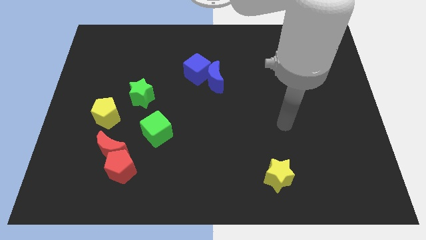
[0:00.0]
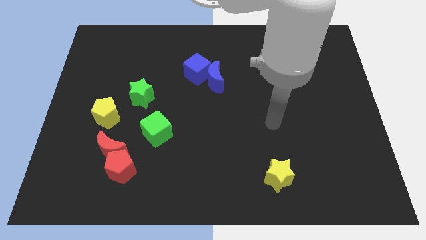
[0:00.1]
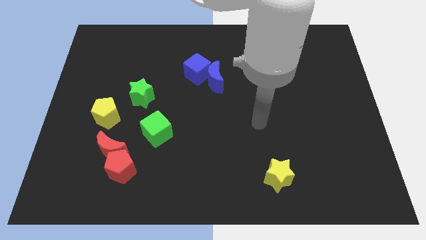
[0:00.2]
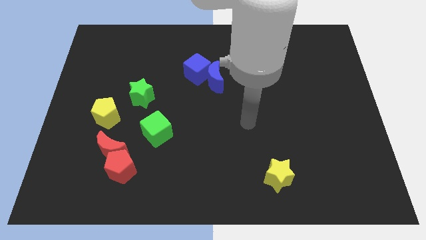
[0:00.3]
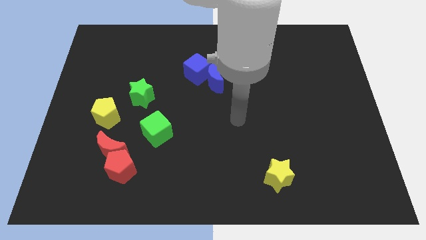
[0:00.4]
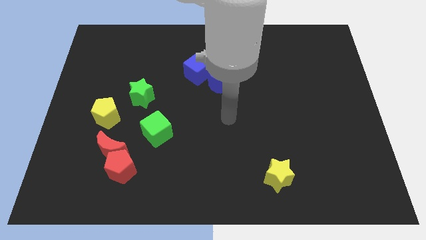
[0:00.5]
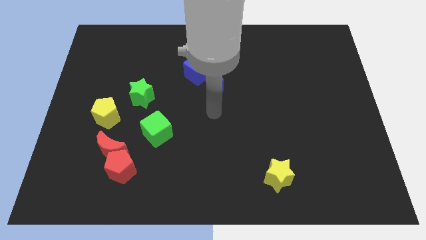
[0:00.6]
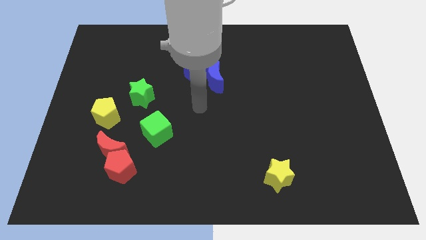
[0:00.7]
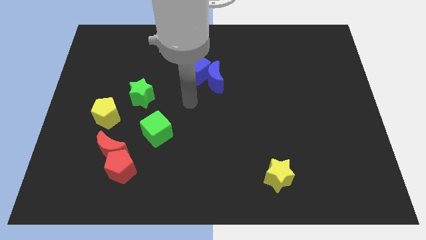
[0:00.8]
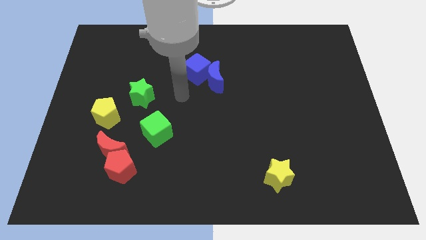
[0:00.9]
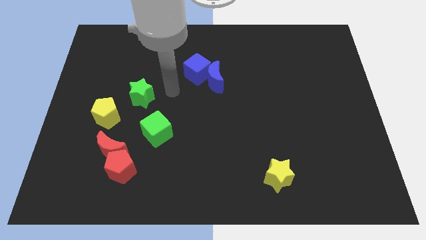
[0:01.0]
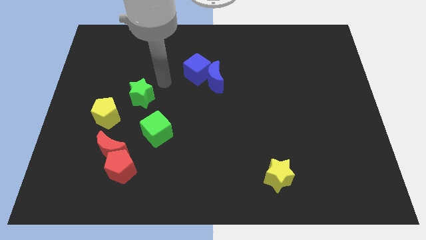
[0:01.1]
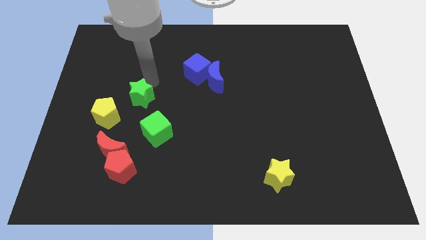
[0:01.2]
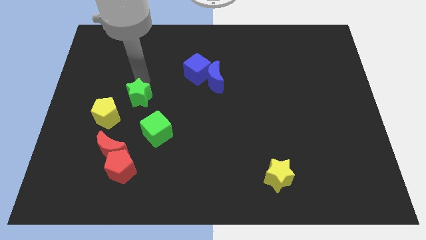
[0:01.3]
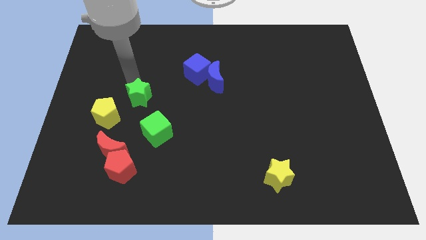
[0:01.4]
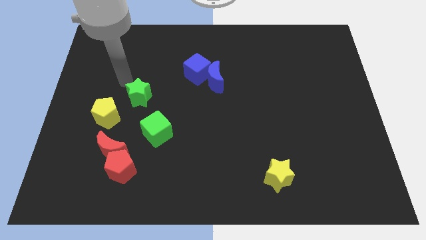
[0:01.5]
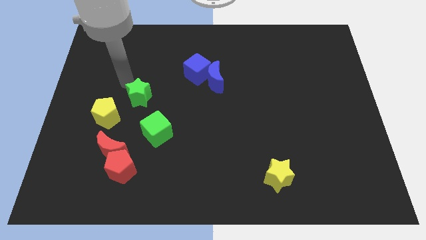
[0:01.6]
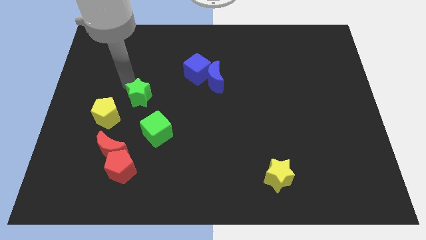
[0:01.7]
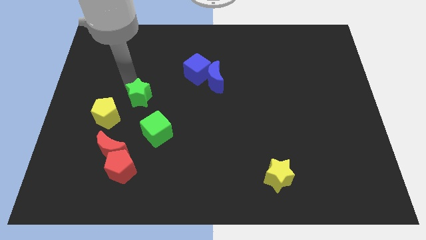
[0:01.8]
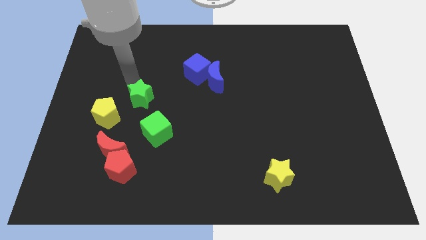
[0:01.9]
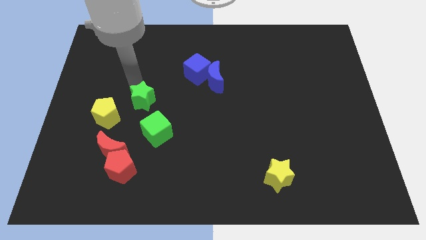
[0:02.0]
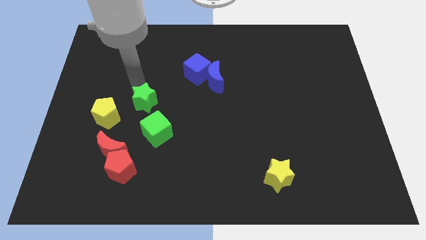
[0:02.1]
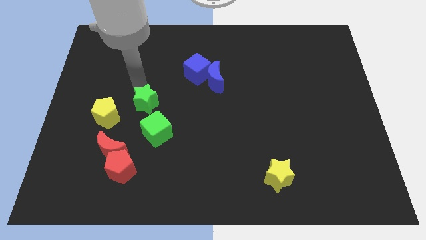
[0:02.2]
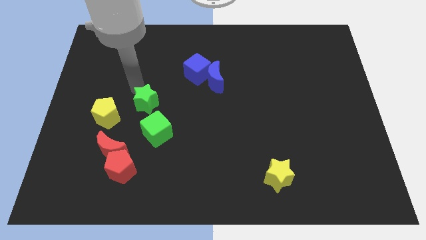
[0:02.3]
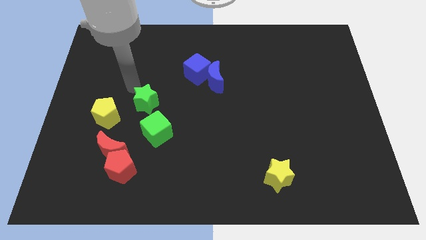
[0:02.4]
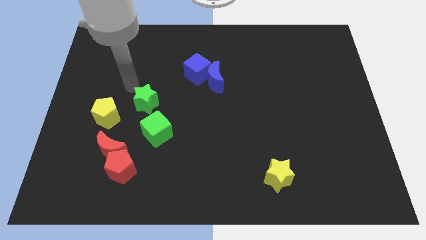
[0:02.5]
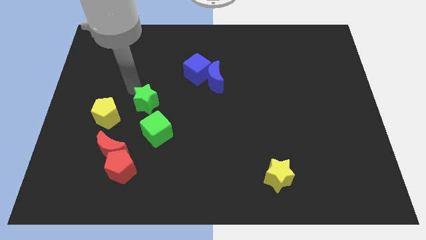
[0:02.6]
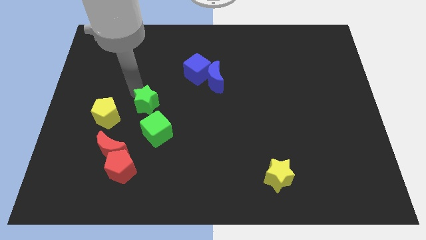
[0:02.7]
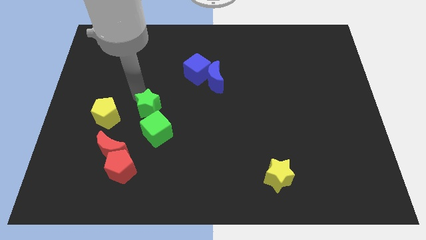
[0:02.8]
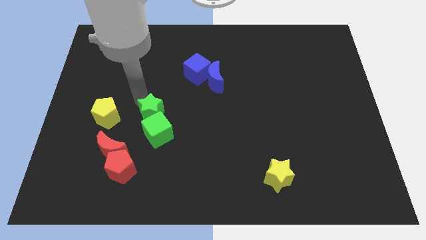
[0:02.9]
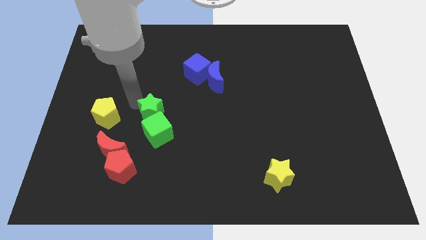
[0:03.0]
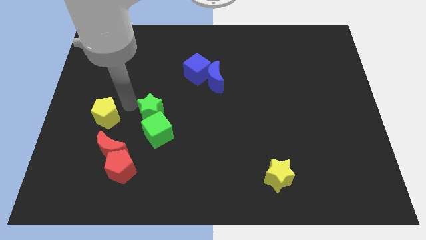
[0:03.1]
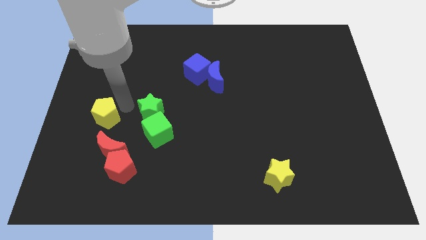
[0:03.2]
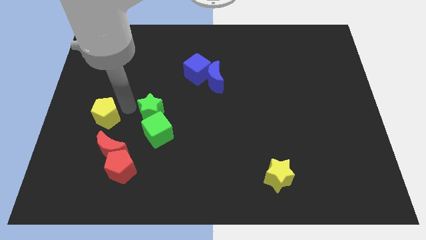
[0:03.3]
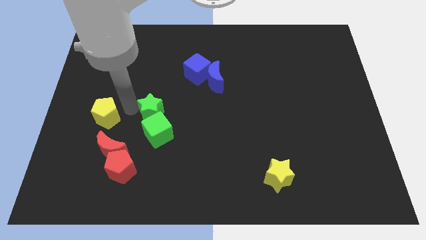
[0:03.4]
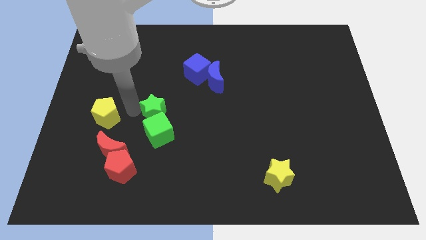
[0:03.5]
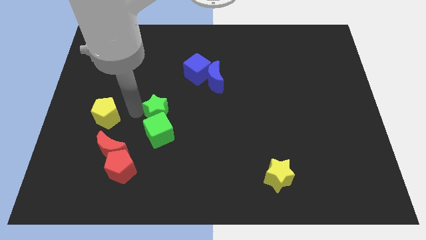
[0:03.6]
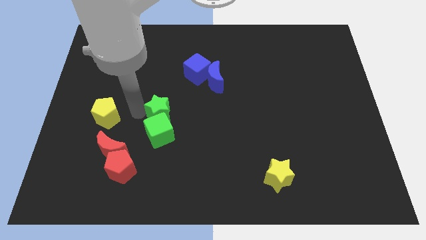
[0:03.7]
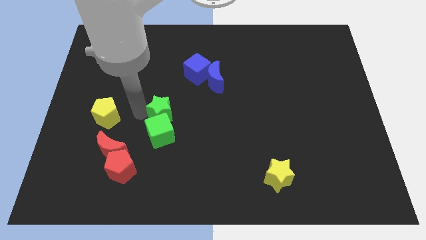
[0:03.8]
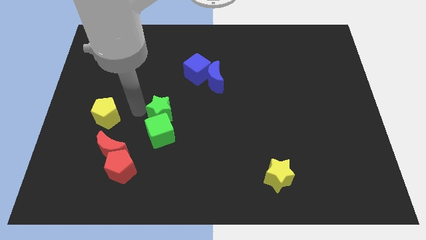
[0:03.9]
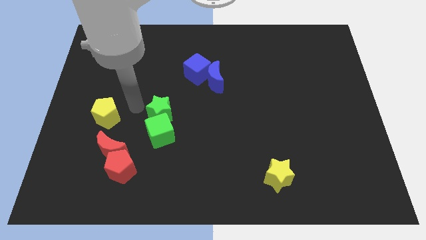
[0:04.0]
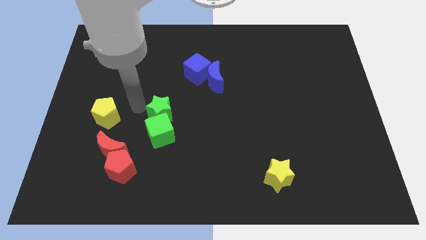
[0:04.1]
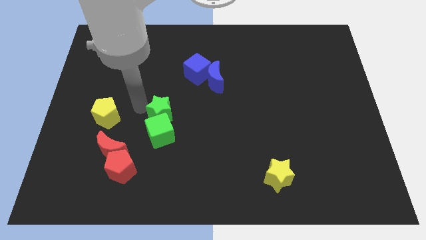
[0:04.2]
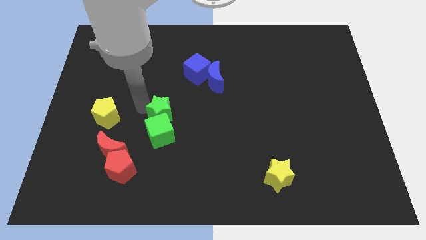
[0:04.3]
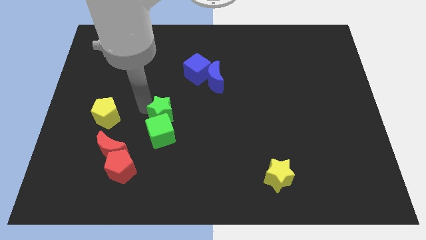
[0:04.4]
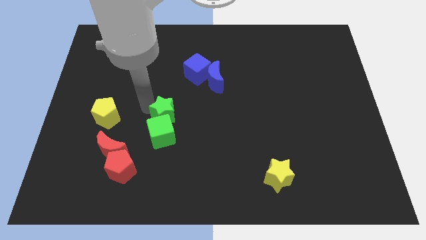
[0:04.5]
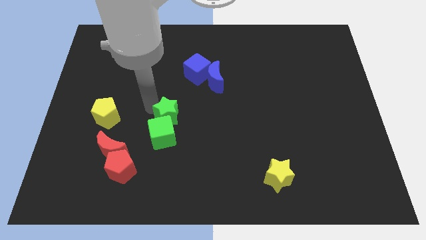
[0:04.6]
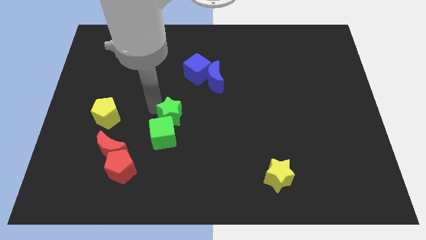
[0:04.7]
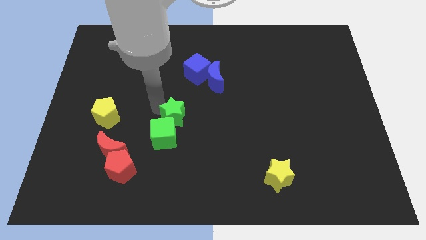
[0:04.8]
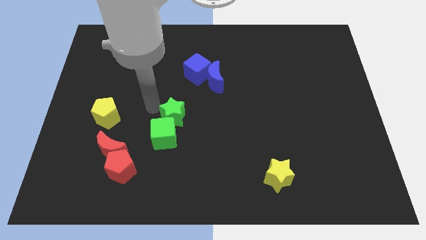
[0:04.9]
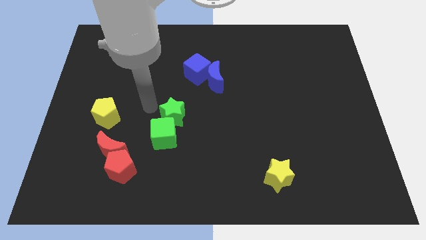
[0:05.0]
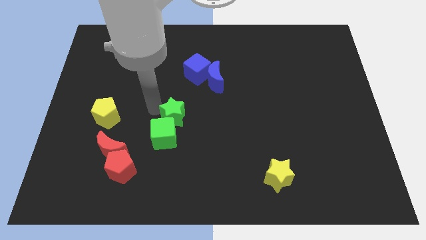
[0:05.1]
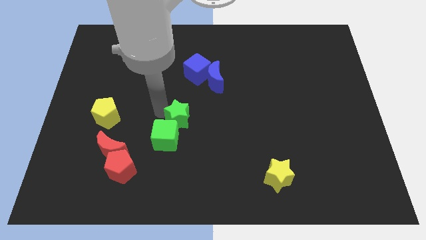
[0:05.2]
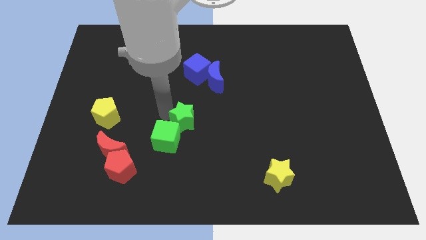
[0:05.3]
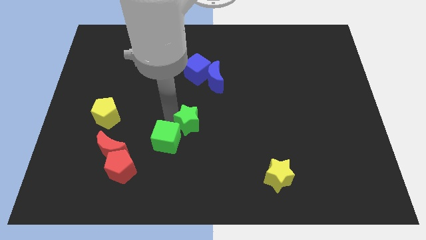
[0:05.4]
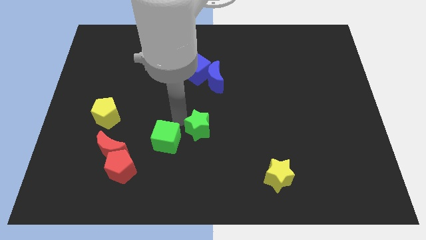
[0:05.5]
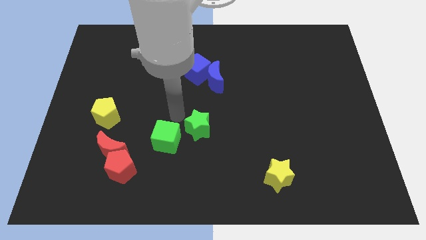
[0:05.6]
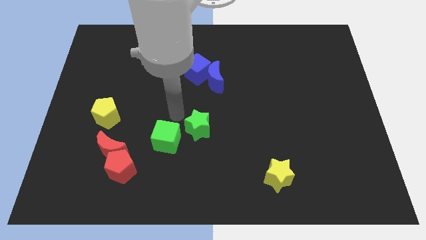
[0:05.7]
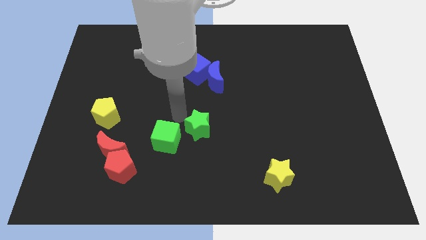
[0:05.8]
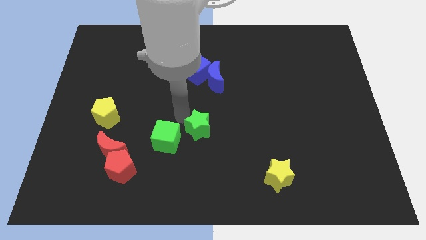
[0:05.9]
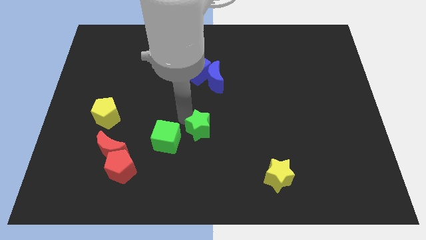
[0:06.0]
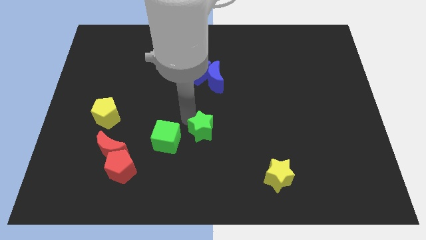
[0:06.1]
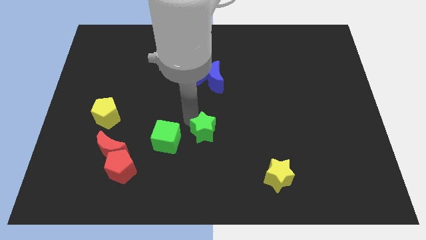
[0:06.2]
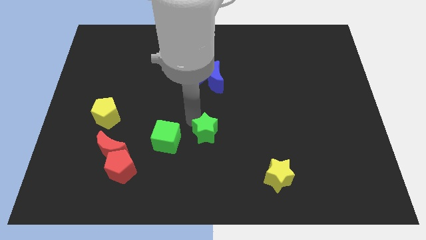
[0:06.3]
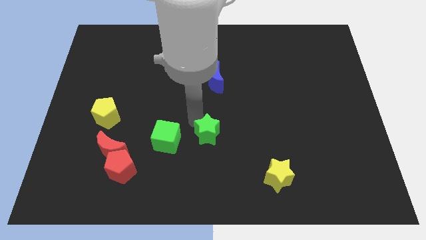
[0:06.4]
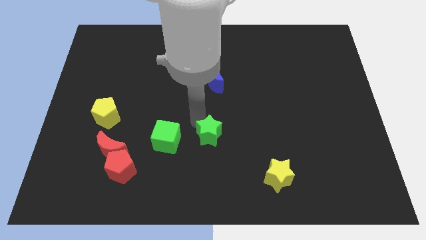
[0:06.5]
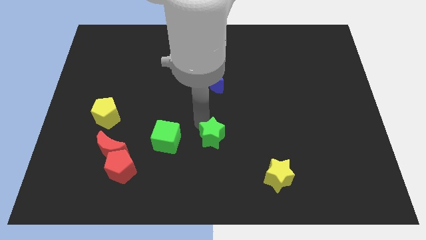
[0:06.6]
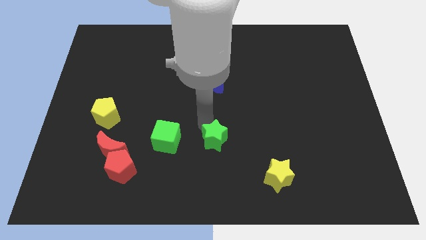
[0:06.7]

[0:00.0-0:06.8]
slide the green star down and right diagonally

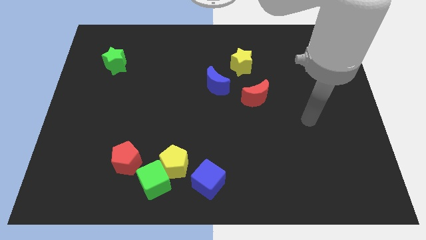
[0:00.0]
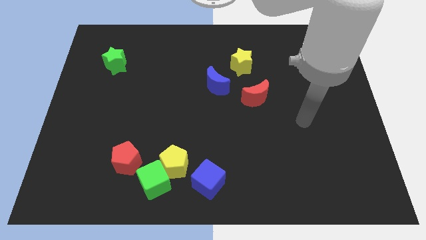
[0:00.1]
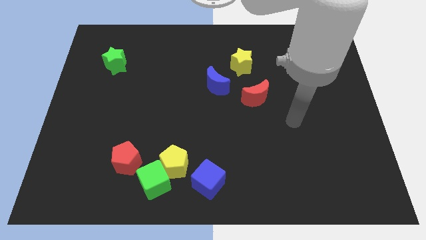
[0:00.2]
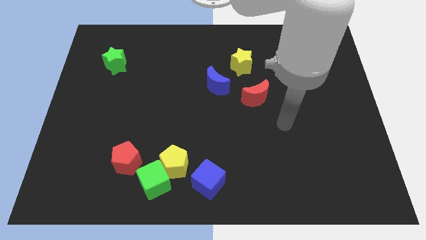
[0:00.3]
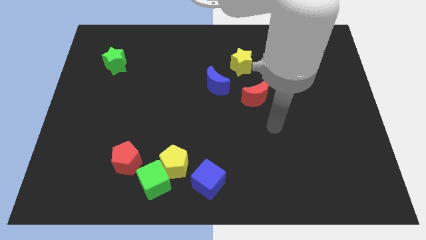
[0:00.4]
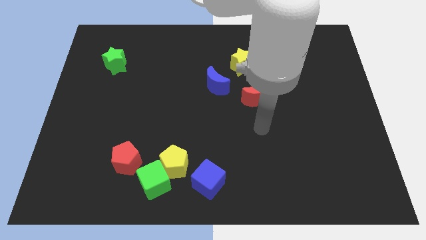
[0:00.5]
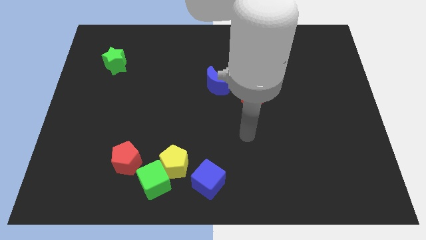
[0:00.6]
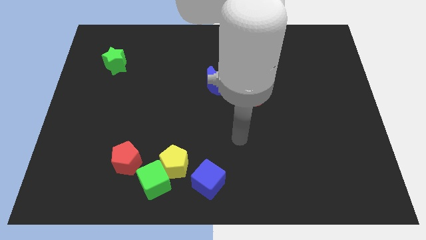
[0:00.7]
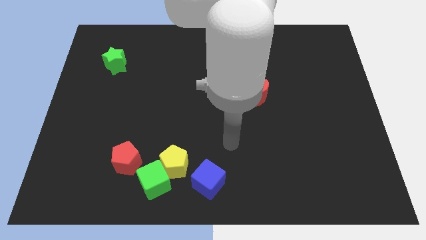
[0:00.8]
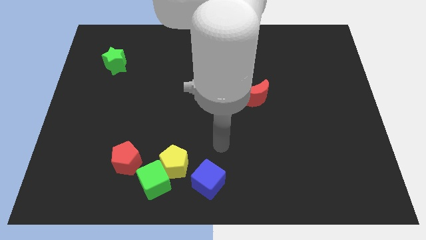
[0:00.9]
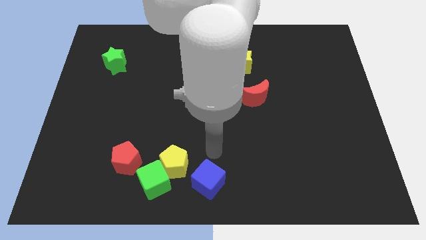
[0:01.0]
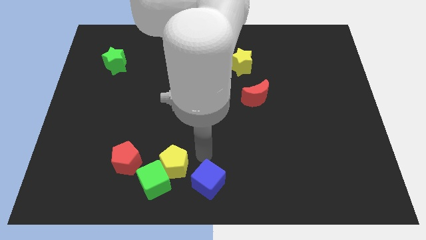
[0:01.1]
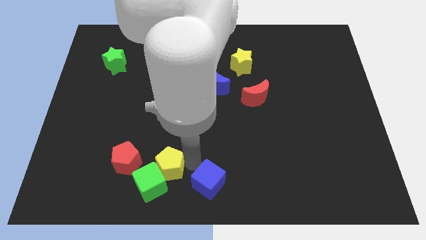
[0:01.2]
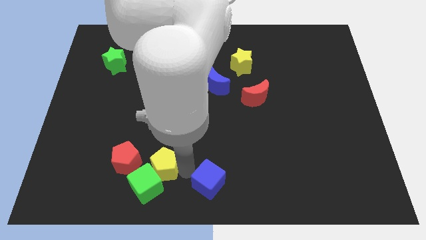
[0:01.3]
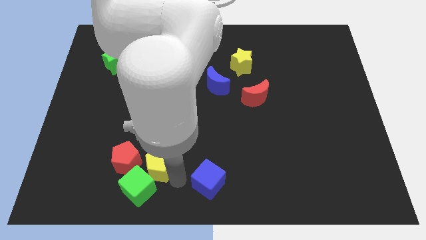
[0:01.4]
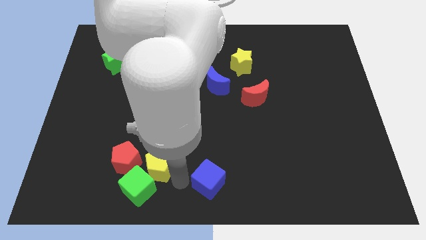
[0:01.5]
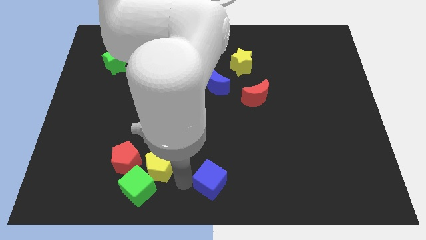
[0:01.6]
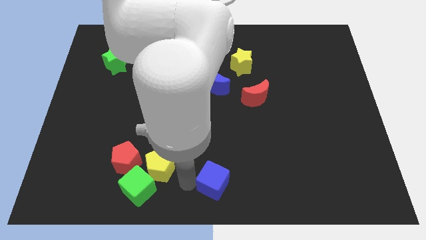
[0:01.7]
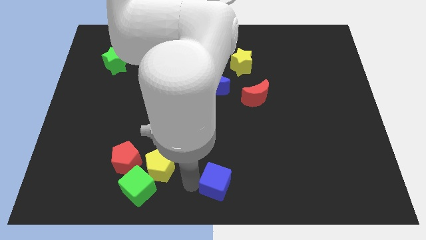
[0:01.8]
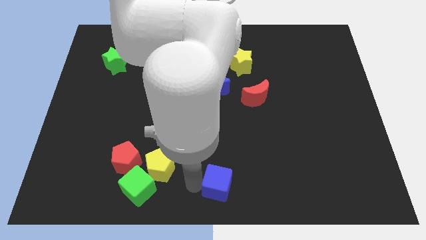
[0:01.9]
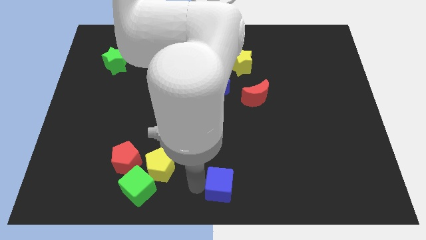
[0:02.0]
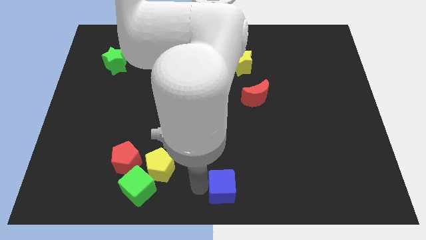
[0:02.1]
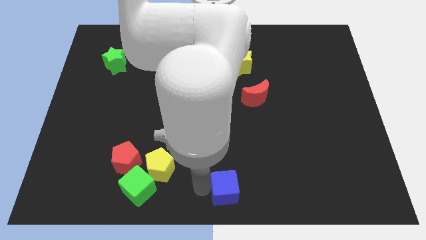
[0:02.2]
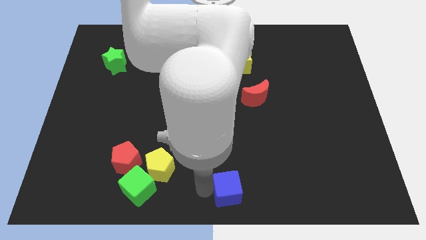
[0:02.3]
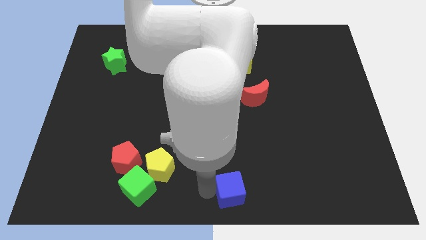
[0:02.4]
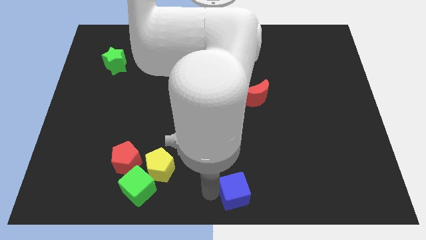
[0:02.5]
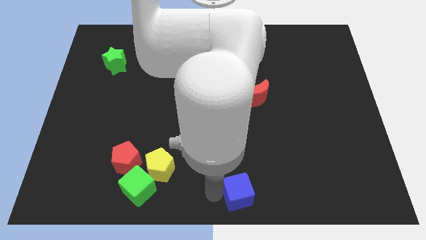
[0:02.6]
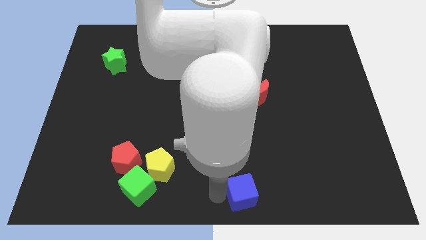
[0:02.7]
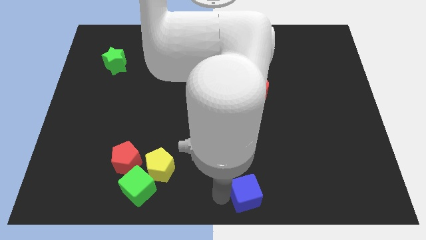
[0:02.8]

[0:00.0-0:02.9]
slightly push the blue cube right
